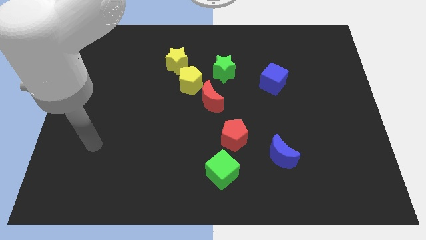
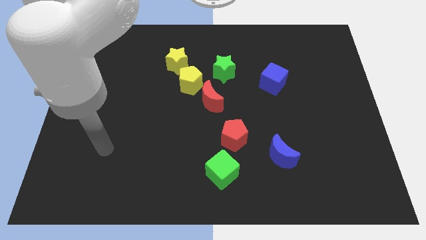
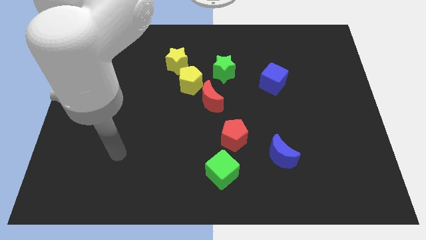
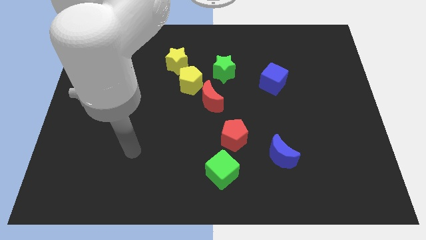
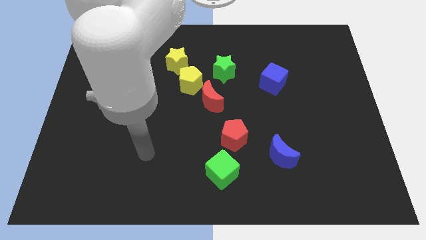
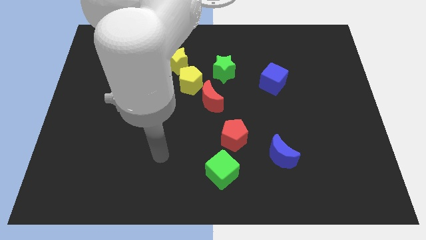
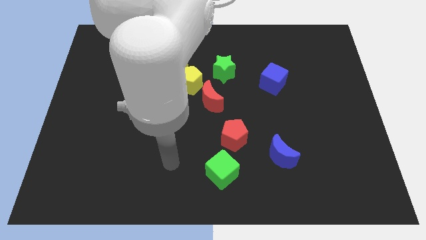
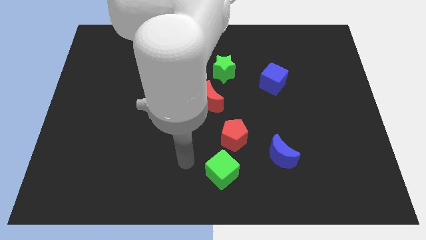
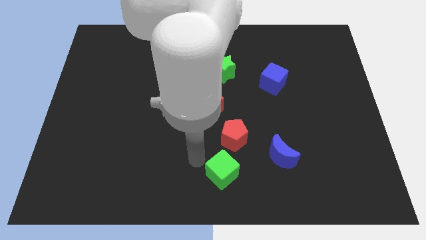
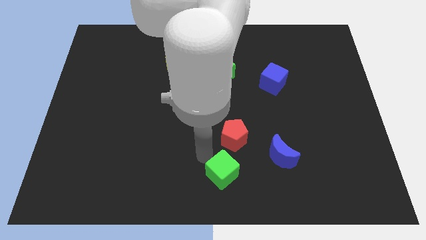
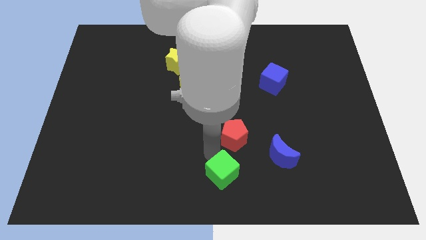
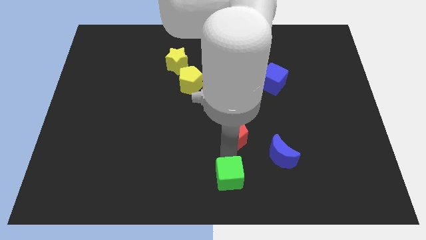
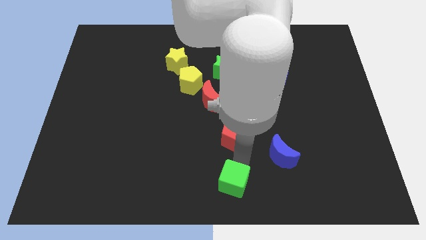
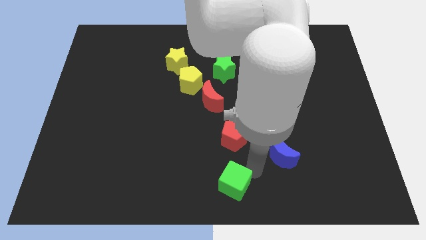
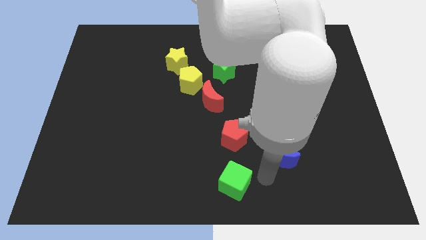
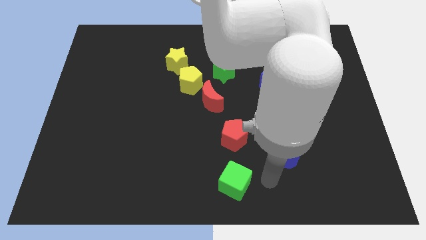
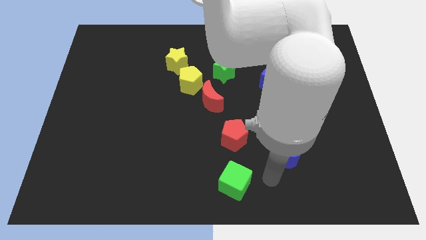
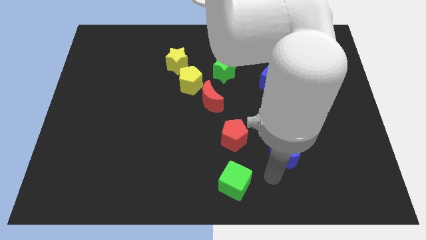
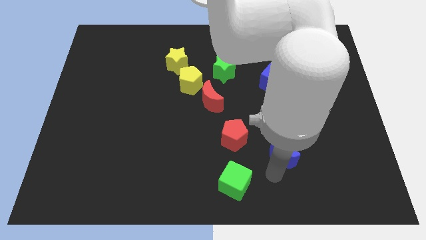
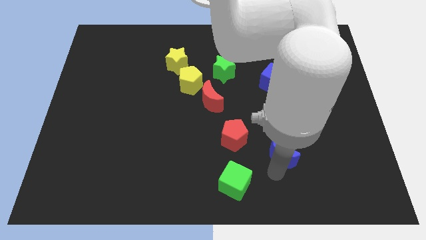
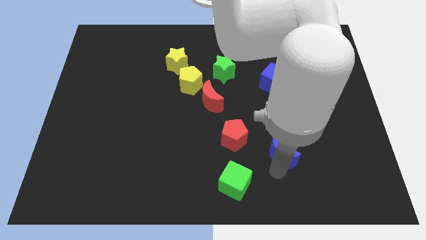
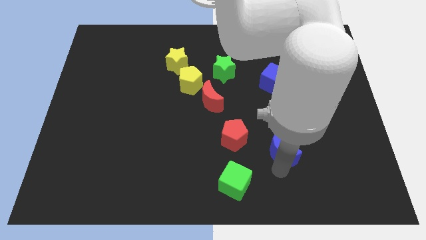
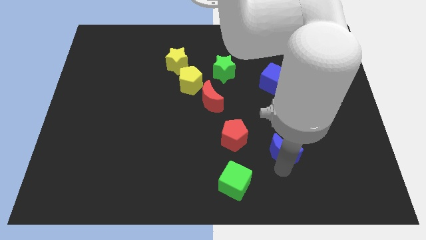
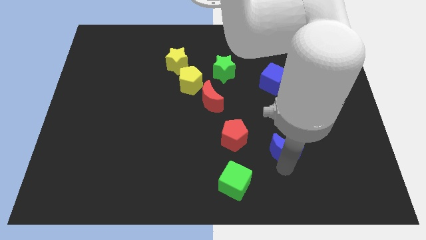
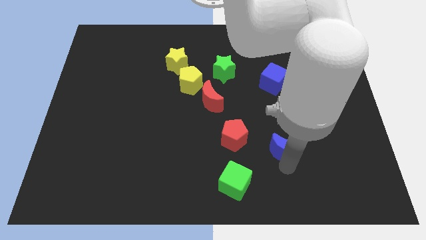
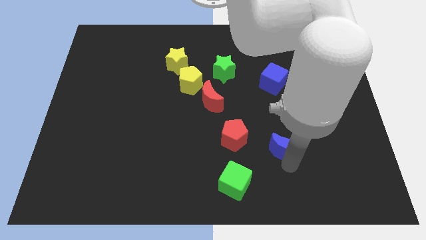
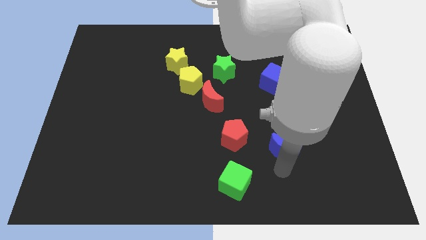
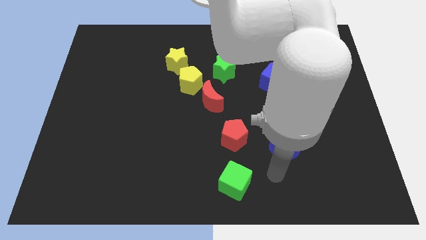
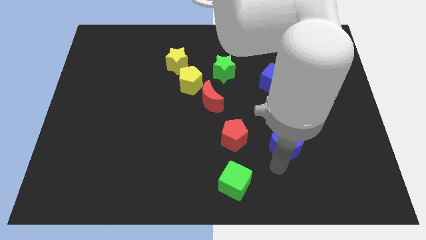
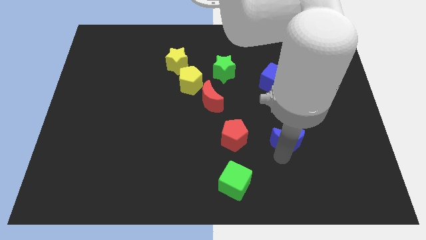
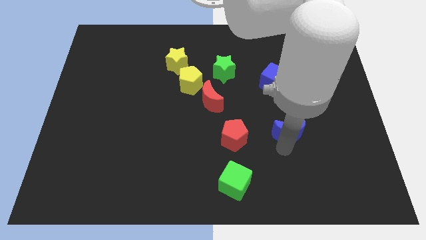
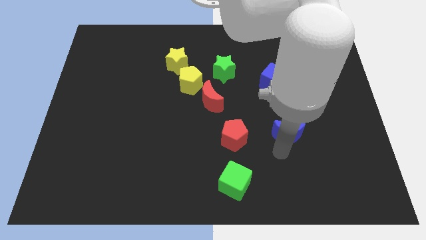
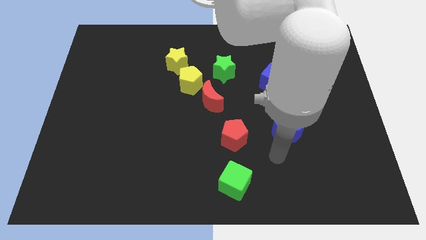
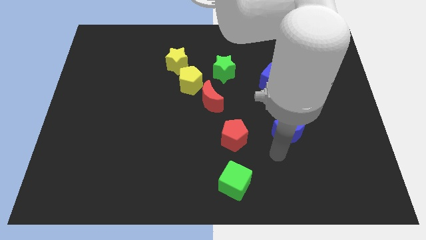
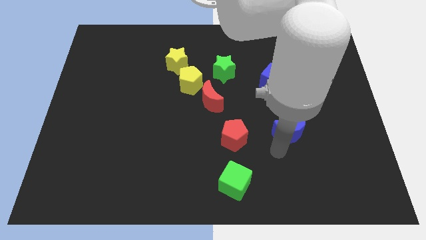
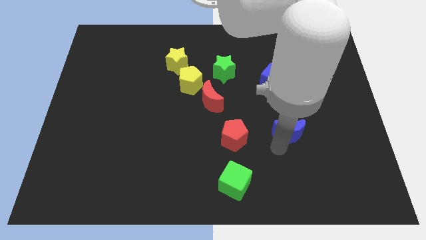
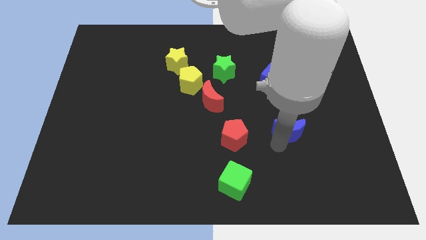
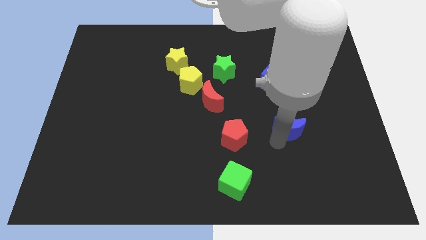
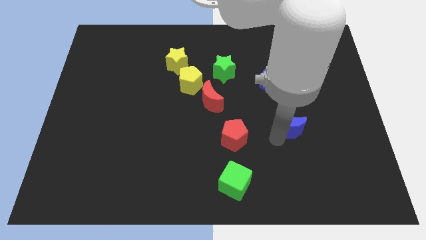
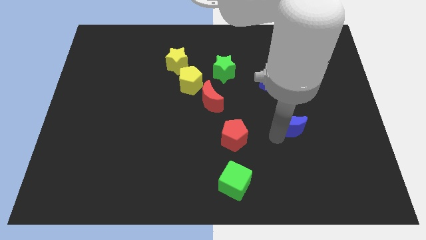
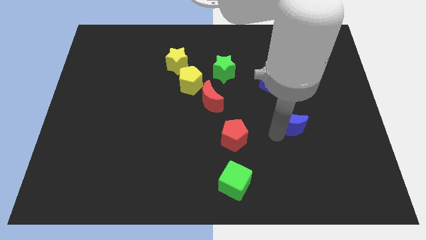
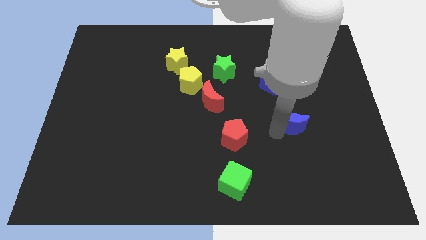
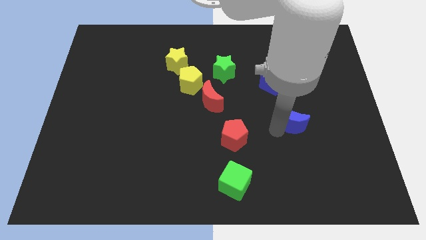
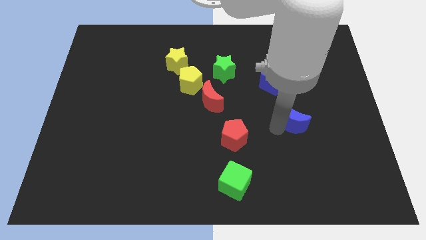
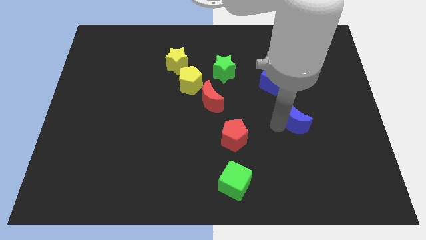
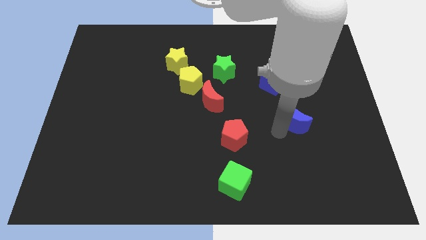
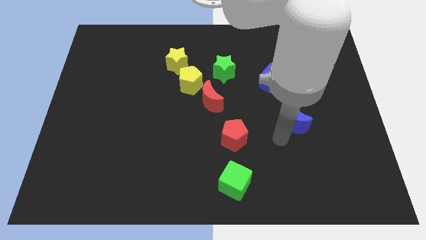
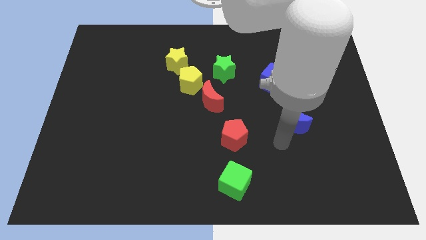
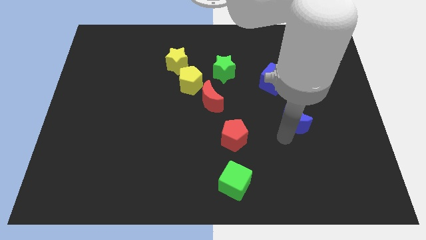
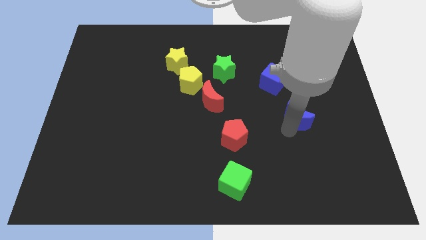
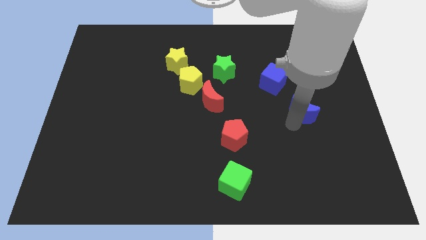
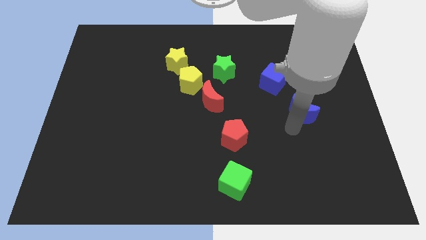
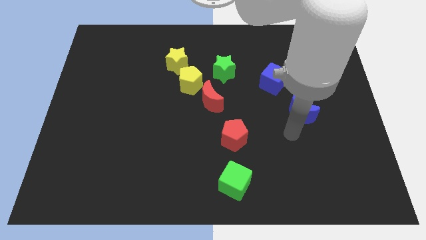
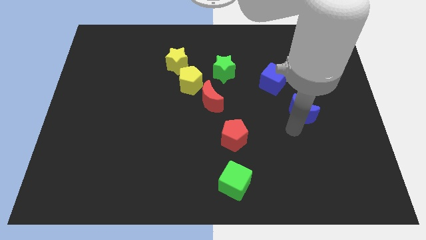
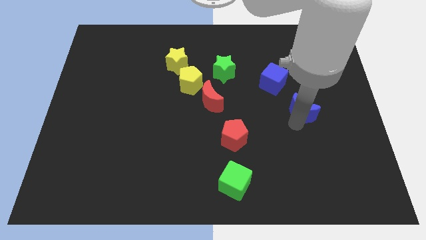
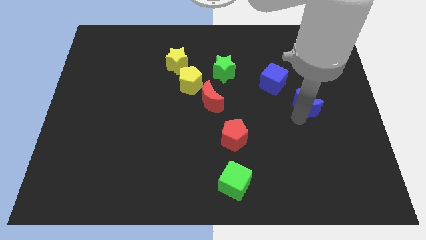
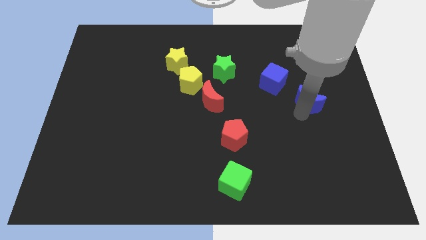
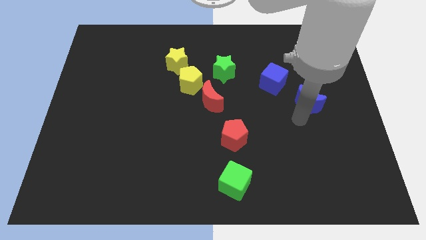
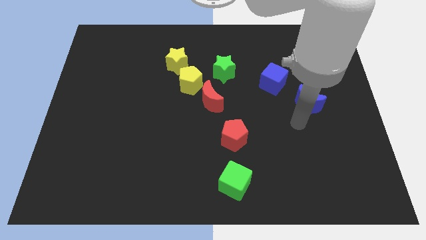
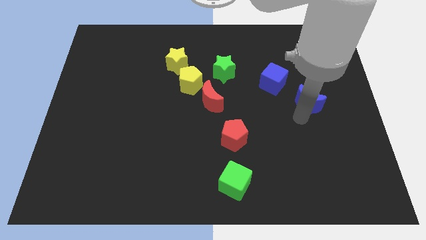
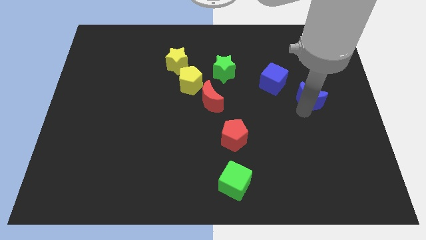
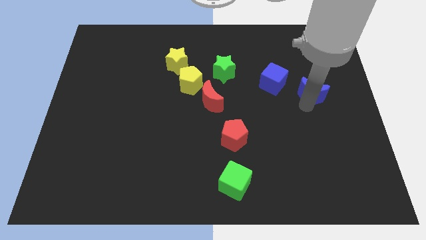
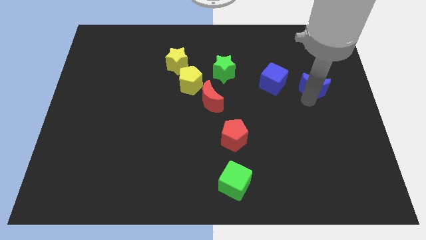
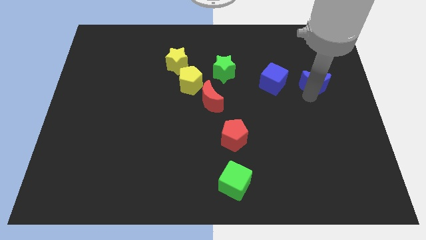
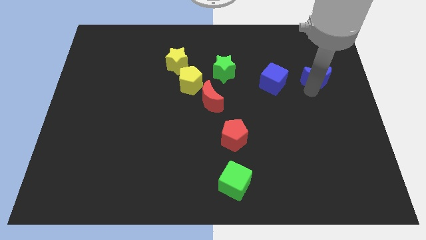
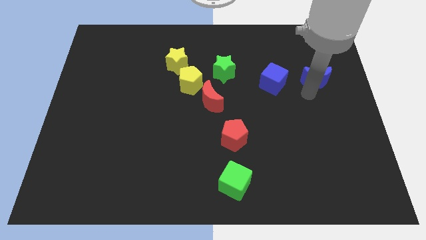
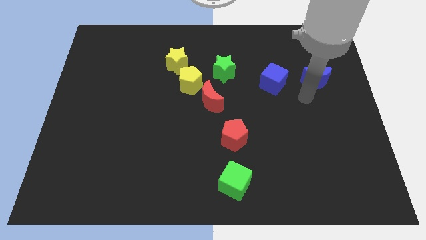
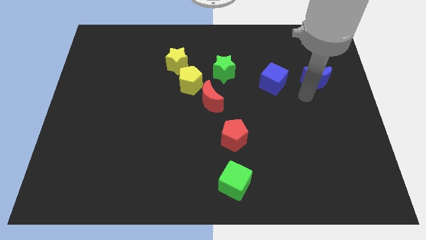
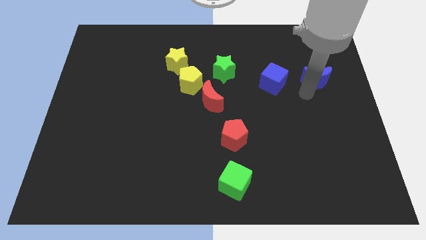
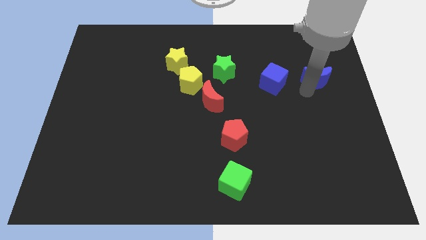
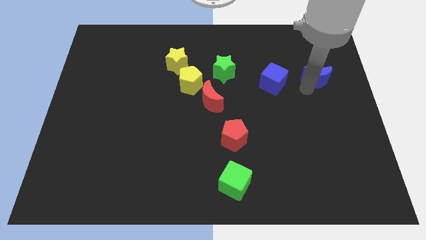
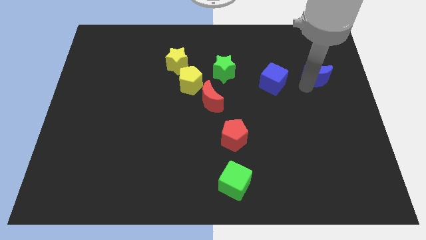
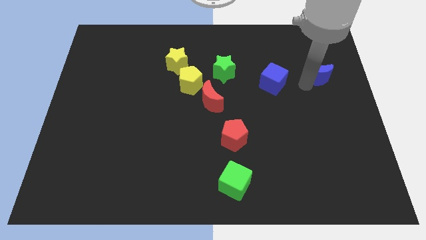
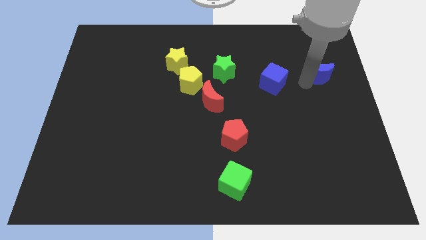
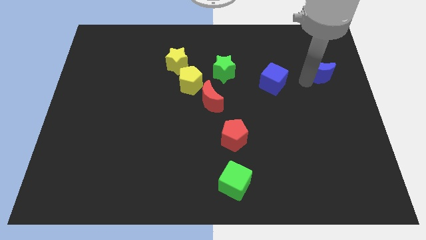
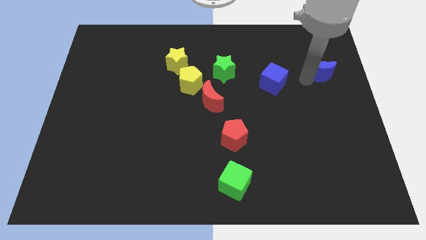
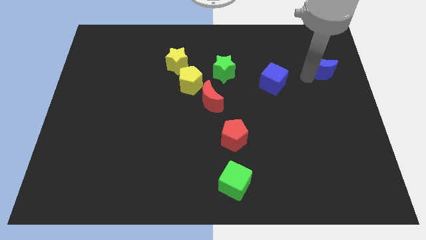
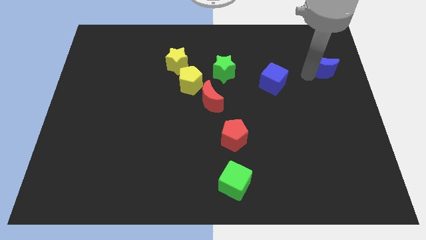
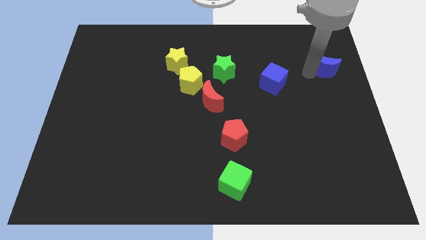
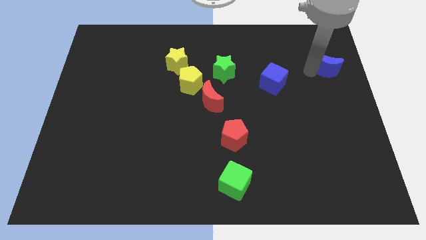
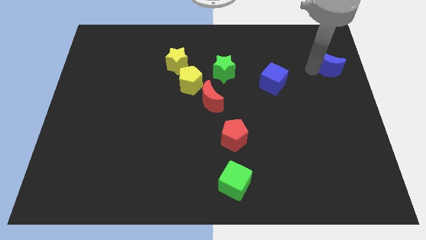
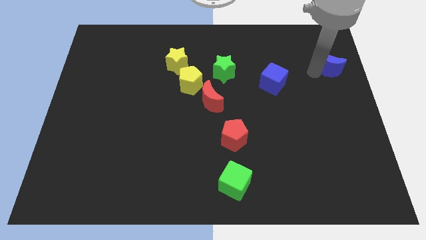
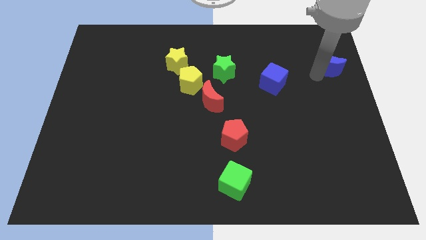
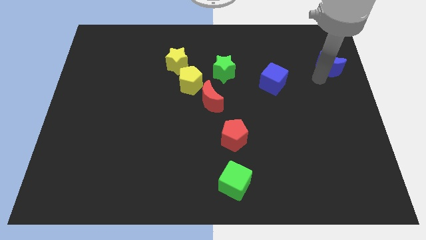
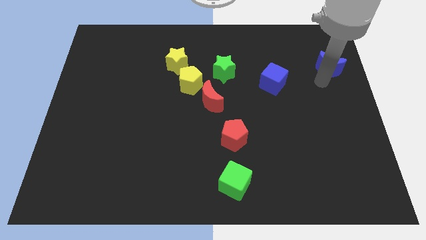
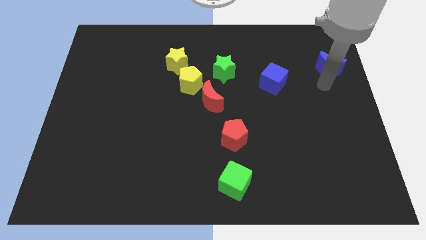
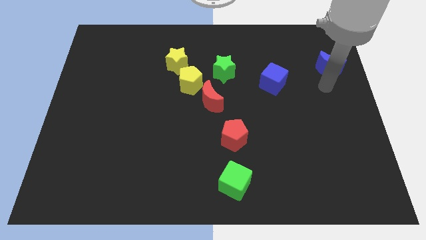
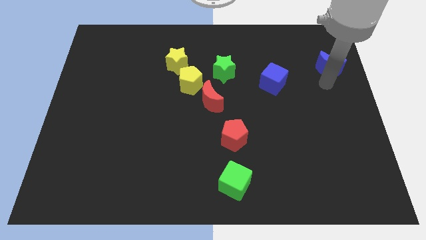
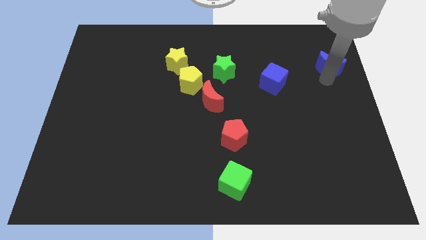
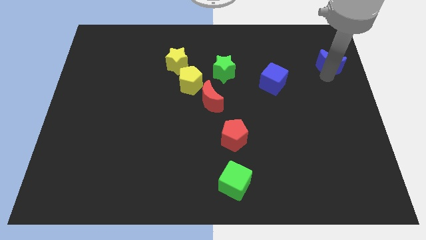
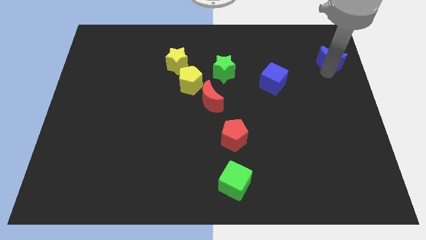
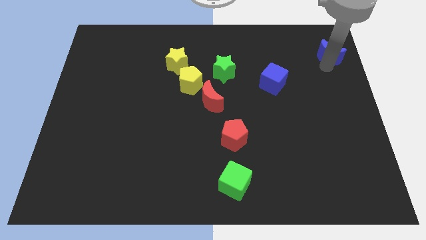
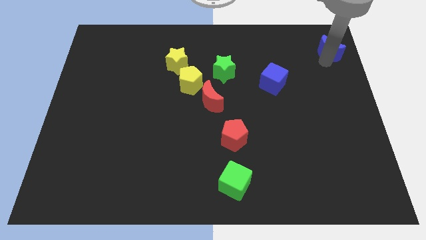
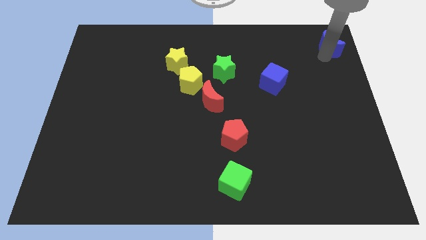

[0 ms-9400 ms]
move the blue moon to the top right of the board
